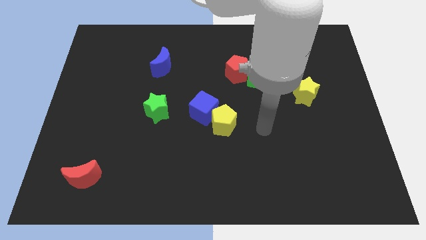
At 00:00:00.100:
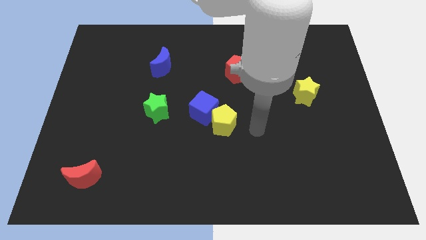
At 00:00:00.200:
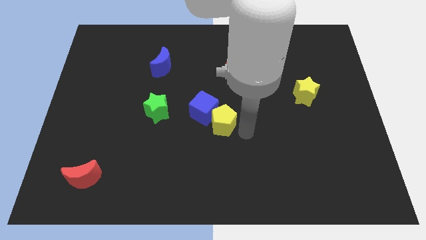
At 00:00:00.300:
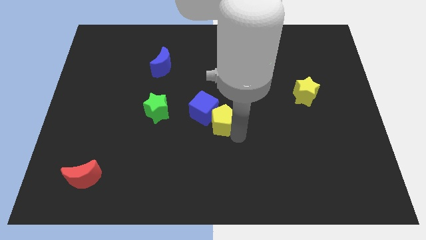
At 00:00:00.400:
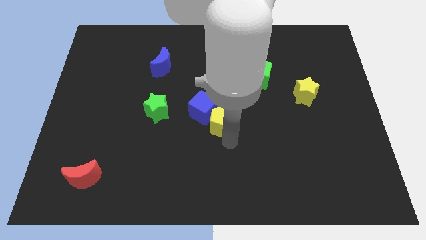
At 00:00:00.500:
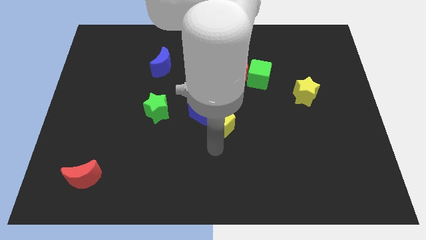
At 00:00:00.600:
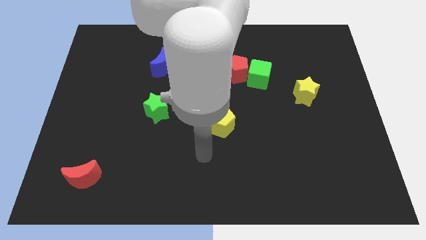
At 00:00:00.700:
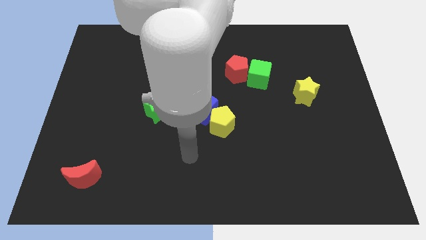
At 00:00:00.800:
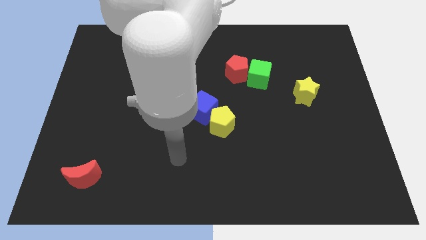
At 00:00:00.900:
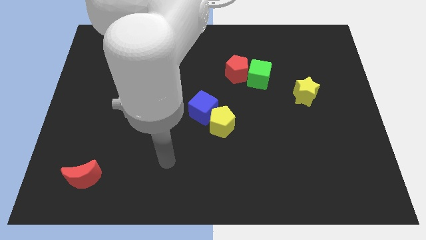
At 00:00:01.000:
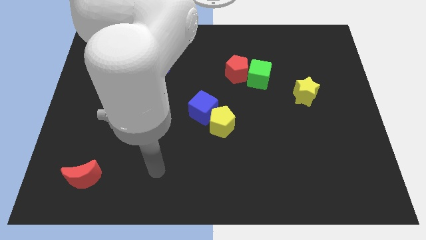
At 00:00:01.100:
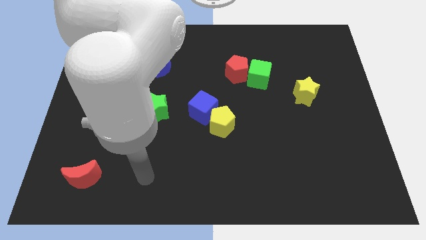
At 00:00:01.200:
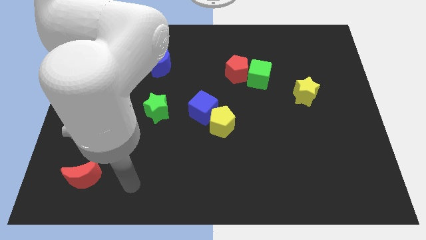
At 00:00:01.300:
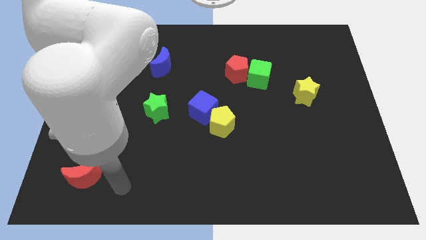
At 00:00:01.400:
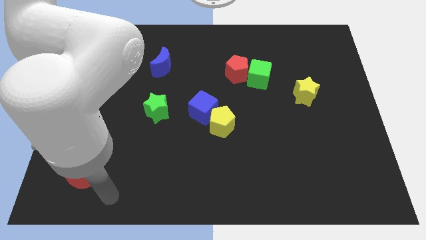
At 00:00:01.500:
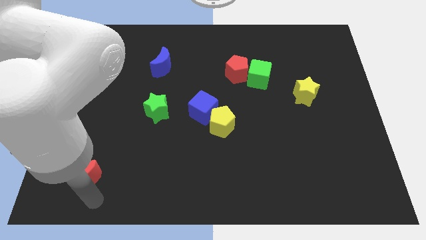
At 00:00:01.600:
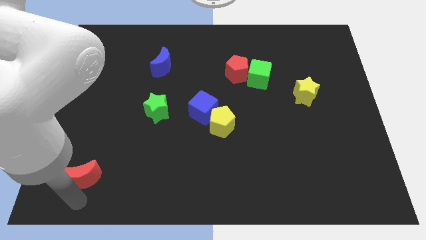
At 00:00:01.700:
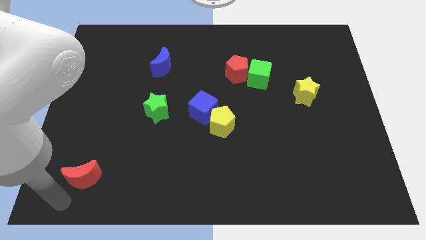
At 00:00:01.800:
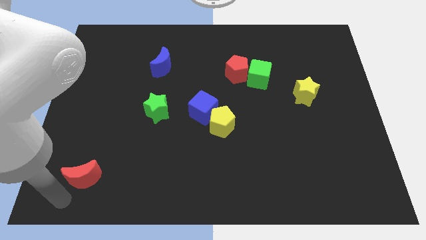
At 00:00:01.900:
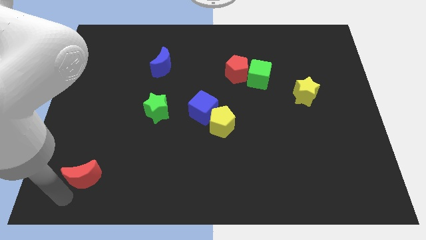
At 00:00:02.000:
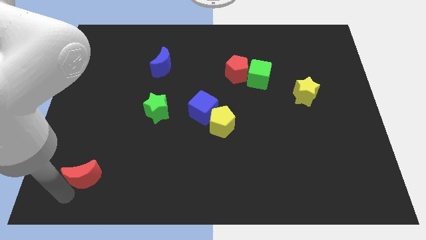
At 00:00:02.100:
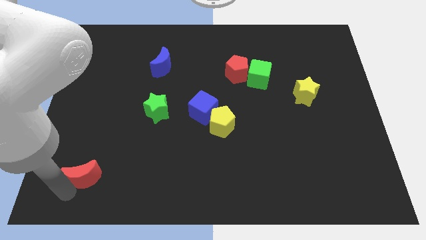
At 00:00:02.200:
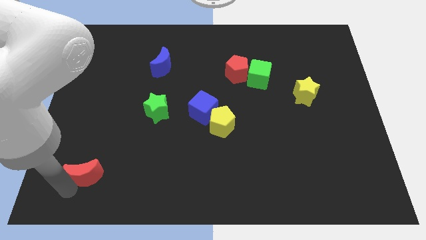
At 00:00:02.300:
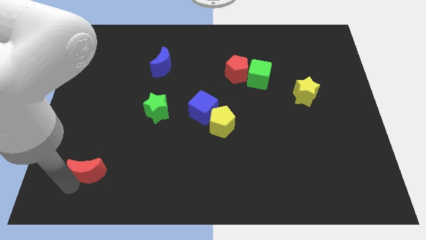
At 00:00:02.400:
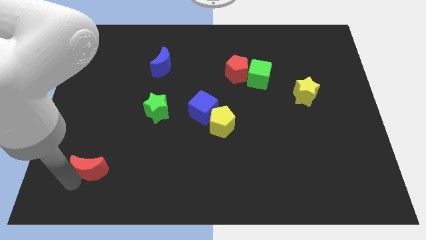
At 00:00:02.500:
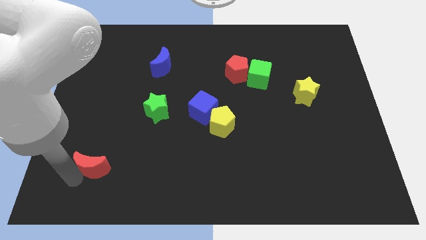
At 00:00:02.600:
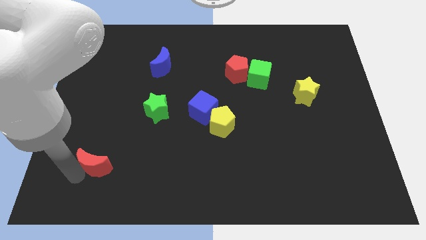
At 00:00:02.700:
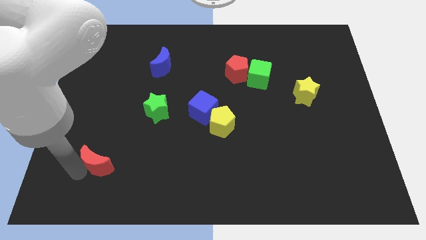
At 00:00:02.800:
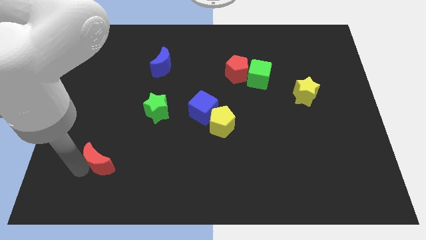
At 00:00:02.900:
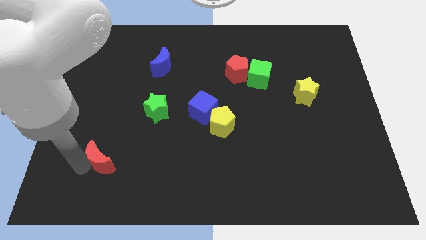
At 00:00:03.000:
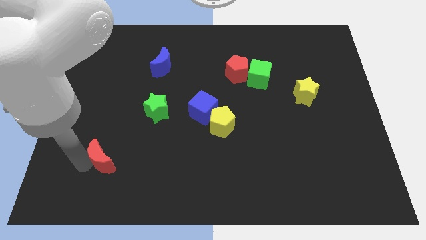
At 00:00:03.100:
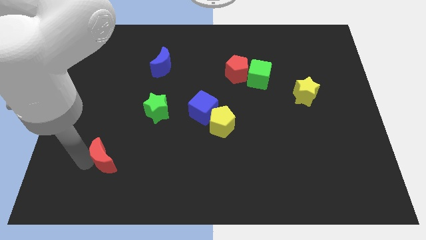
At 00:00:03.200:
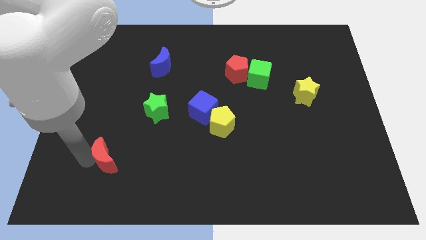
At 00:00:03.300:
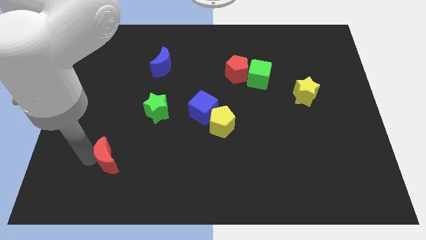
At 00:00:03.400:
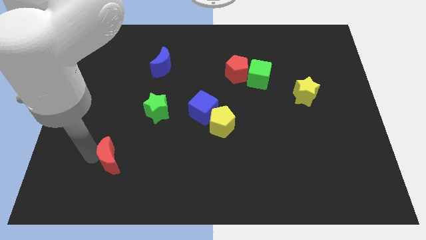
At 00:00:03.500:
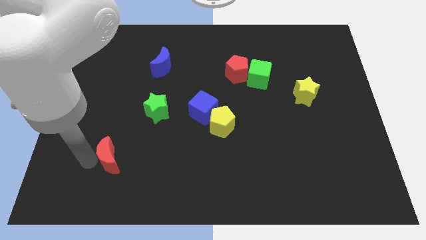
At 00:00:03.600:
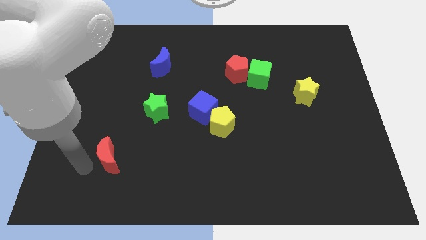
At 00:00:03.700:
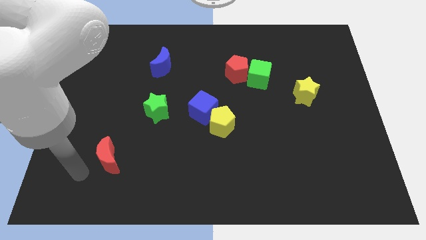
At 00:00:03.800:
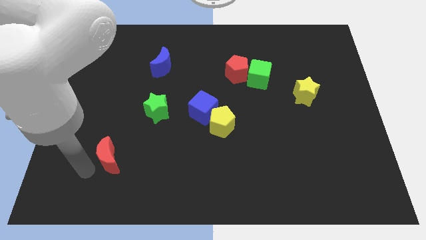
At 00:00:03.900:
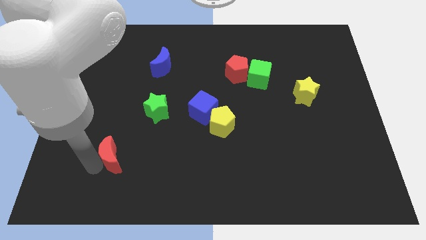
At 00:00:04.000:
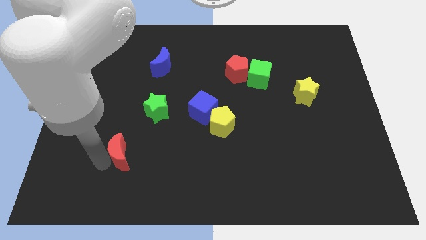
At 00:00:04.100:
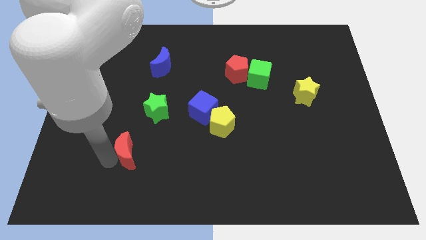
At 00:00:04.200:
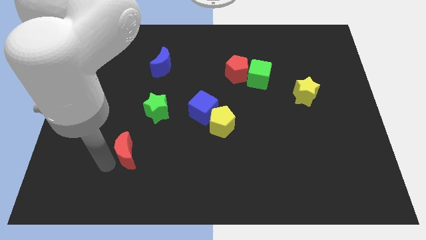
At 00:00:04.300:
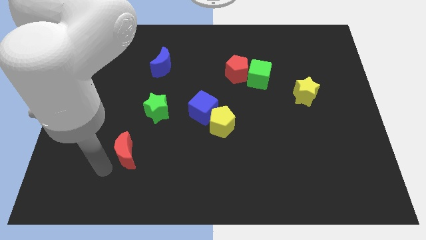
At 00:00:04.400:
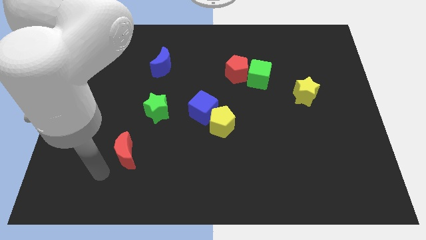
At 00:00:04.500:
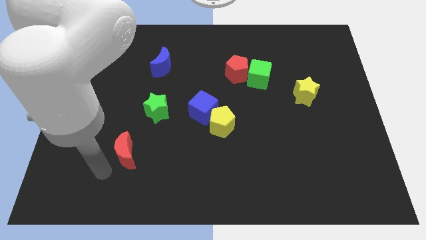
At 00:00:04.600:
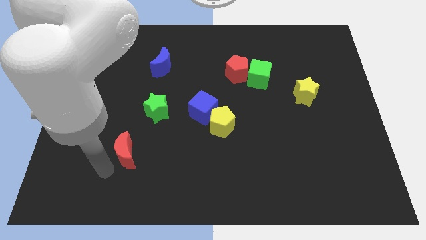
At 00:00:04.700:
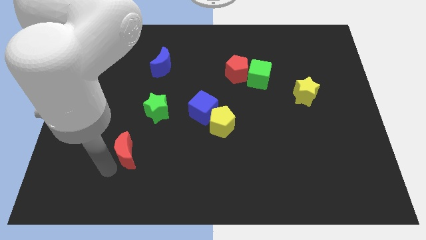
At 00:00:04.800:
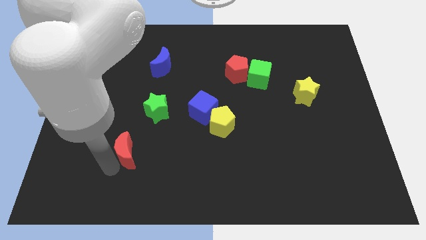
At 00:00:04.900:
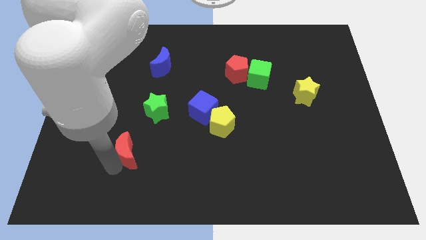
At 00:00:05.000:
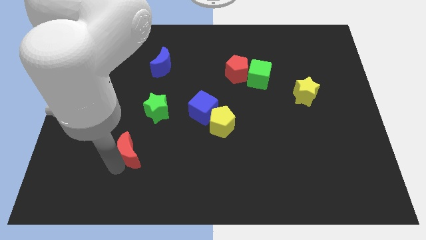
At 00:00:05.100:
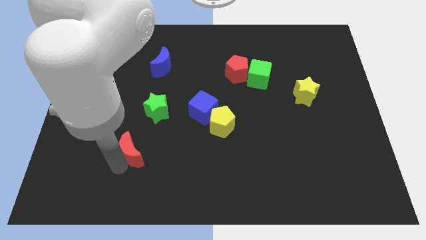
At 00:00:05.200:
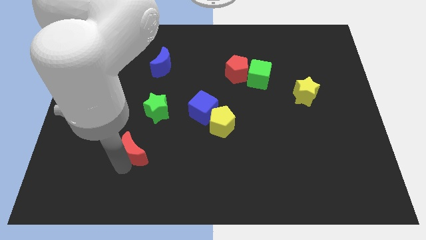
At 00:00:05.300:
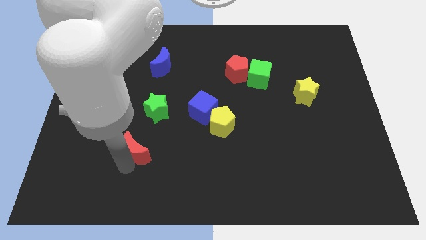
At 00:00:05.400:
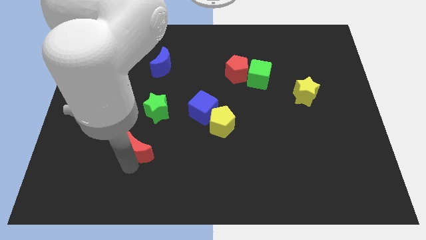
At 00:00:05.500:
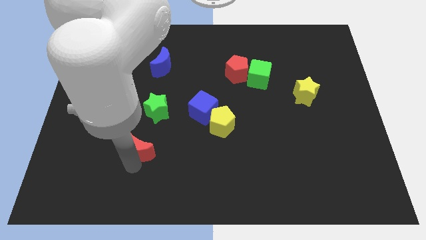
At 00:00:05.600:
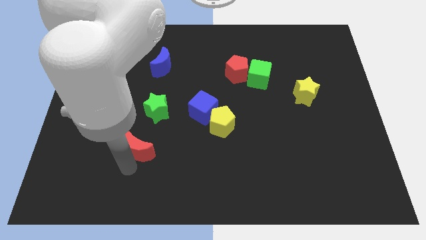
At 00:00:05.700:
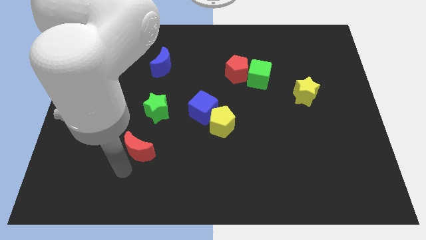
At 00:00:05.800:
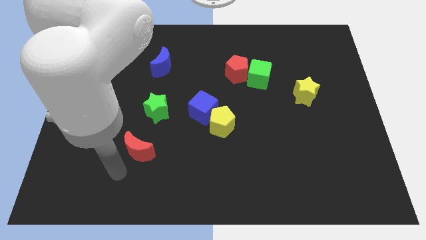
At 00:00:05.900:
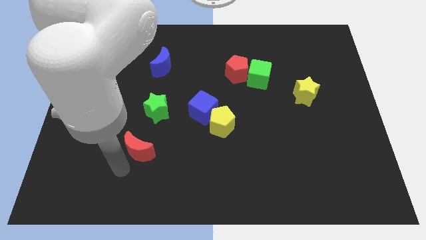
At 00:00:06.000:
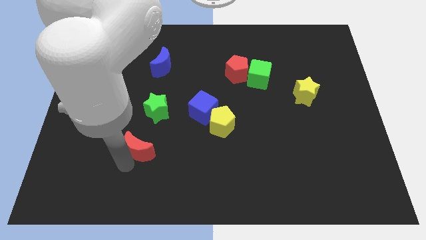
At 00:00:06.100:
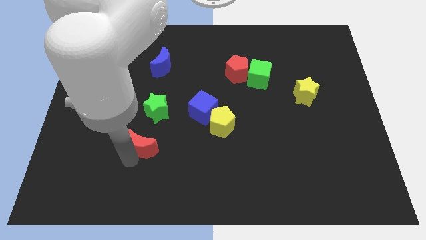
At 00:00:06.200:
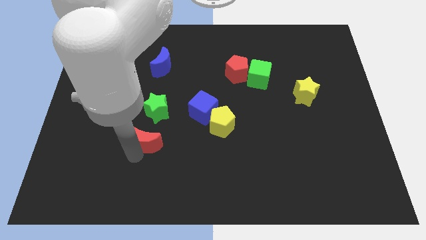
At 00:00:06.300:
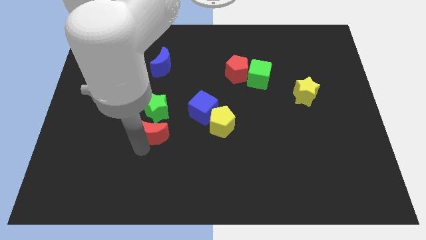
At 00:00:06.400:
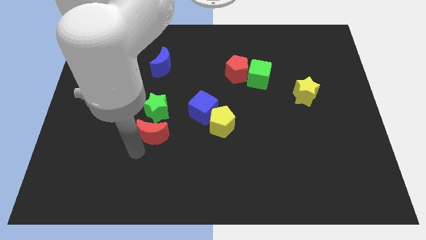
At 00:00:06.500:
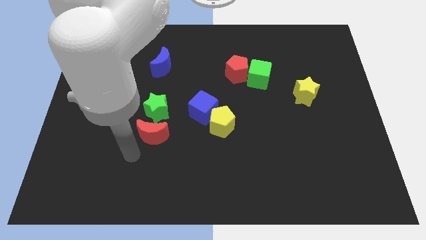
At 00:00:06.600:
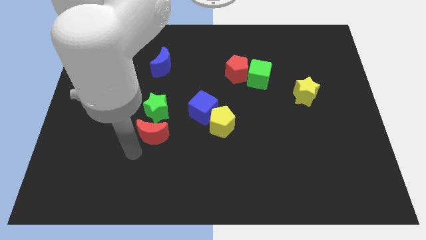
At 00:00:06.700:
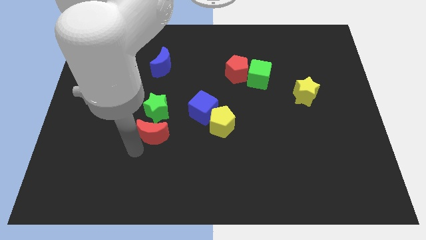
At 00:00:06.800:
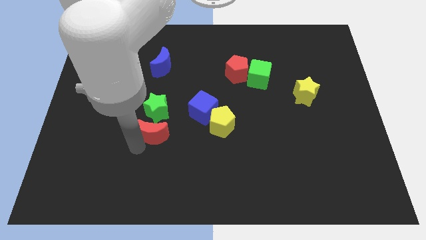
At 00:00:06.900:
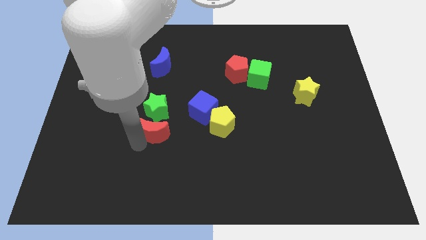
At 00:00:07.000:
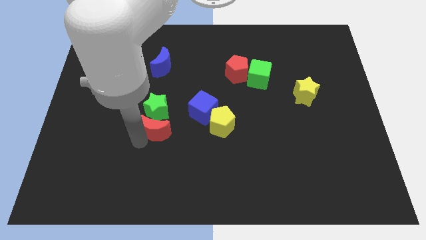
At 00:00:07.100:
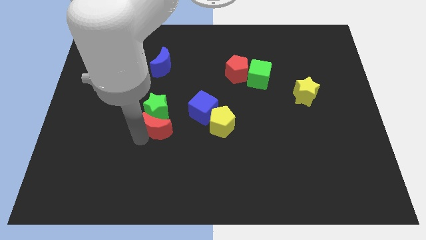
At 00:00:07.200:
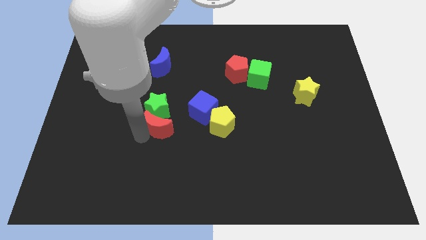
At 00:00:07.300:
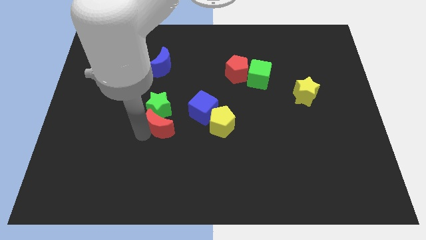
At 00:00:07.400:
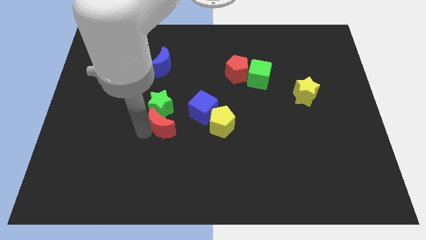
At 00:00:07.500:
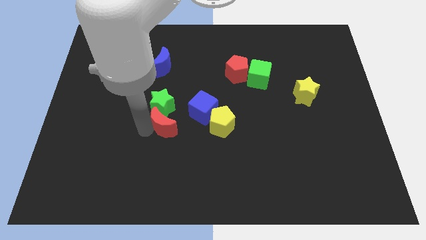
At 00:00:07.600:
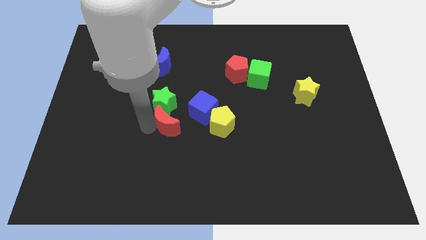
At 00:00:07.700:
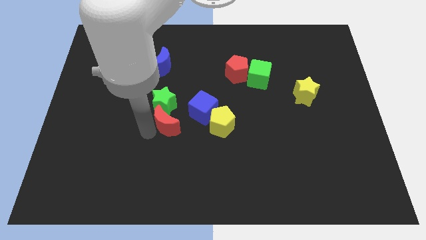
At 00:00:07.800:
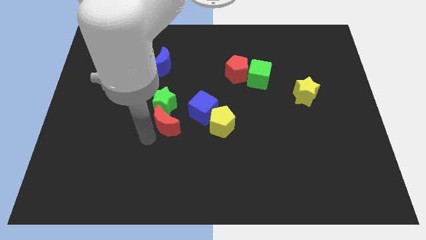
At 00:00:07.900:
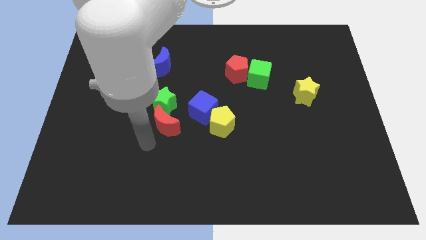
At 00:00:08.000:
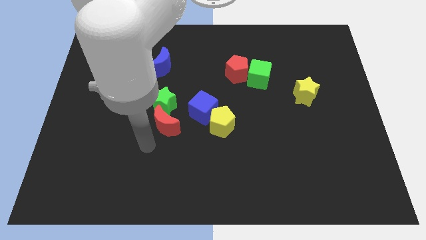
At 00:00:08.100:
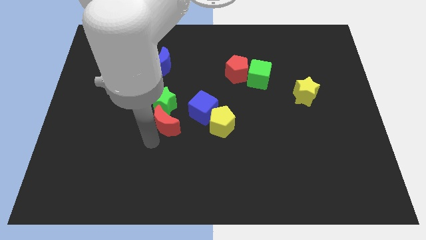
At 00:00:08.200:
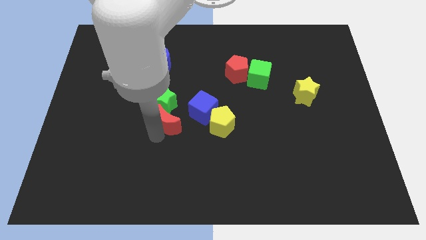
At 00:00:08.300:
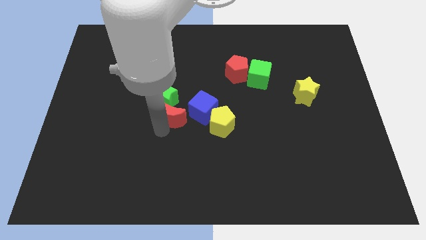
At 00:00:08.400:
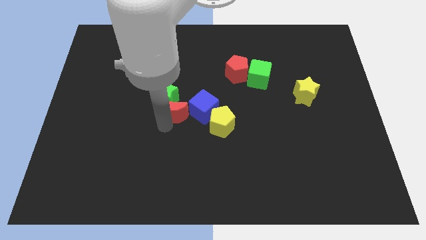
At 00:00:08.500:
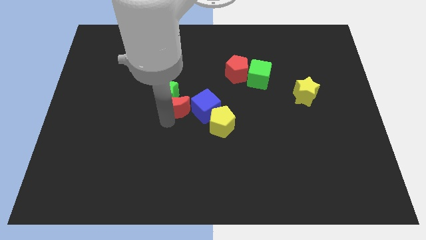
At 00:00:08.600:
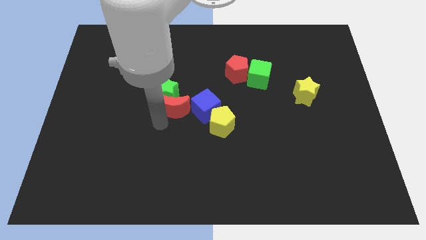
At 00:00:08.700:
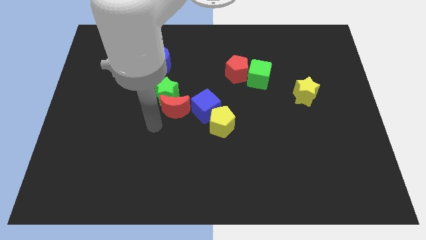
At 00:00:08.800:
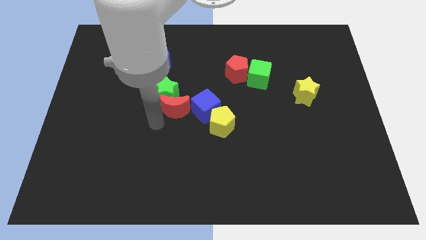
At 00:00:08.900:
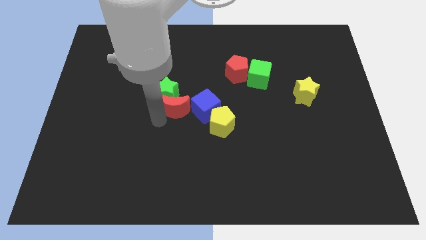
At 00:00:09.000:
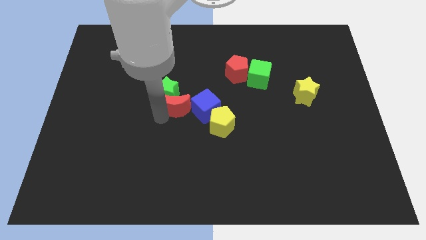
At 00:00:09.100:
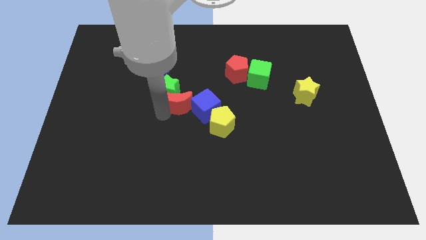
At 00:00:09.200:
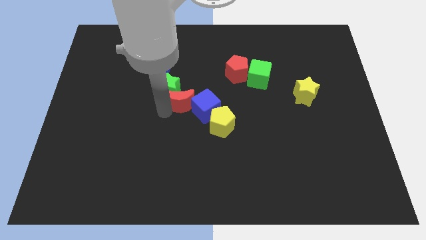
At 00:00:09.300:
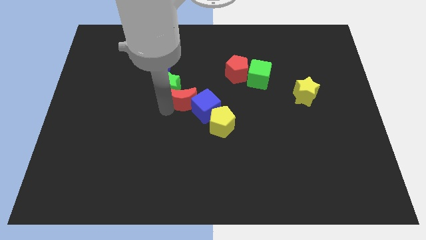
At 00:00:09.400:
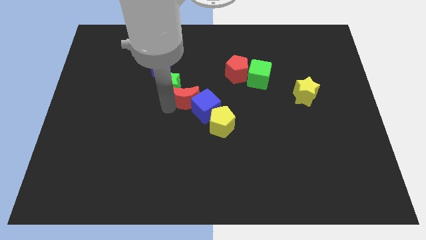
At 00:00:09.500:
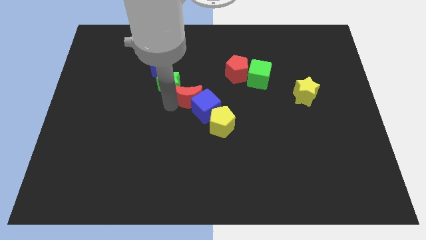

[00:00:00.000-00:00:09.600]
put the red moon to the top of the blue cube
